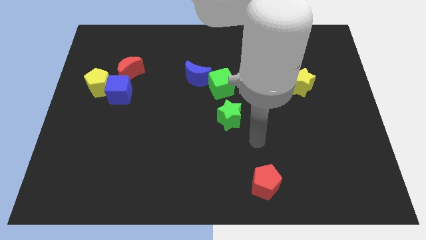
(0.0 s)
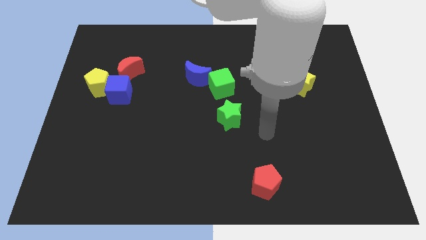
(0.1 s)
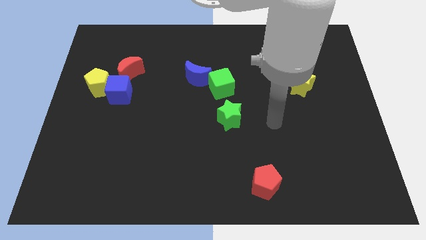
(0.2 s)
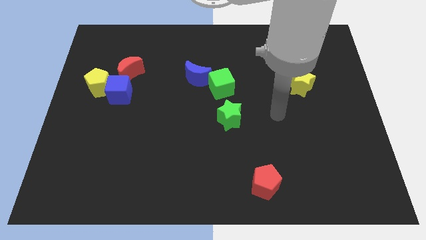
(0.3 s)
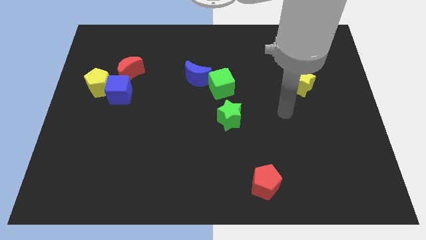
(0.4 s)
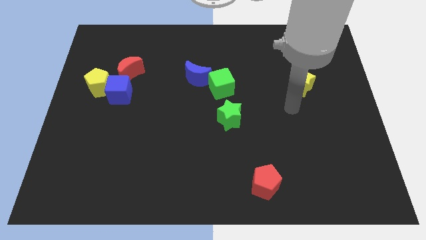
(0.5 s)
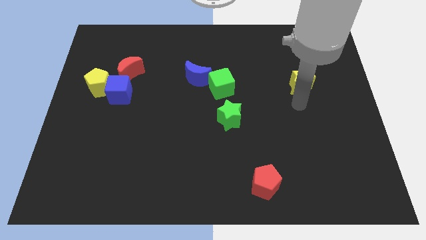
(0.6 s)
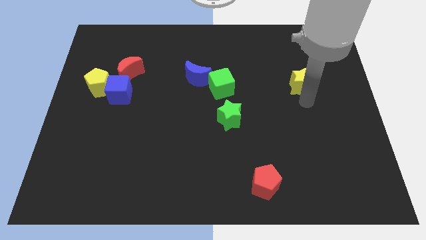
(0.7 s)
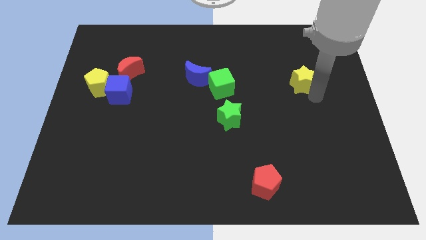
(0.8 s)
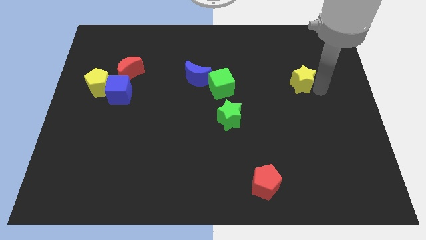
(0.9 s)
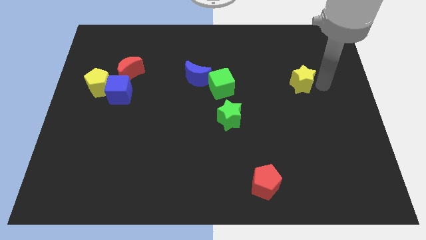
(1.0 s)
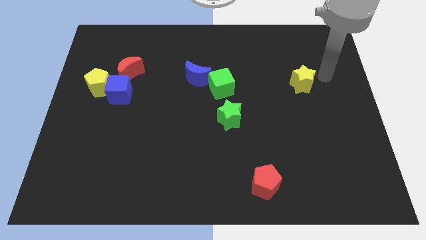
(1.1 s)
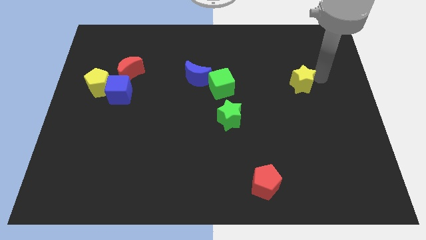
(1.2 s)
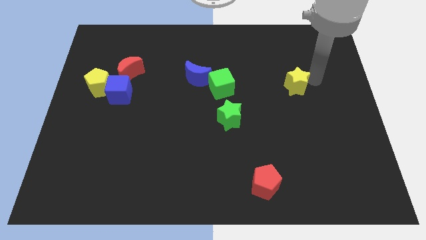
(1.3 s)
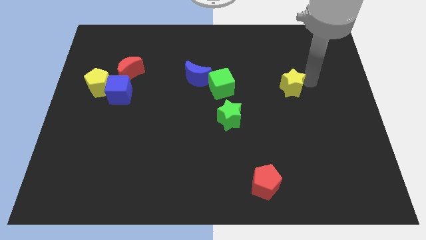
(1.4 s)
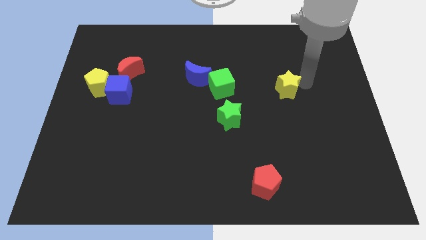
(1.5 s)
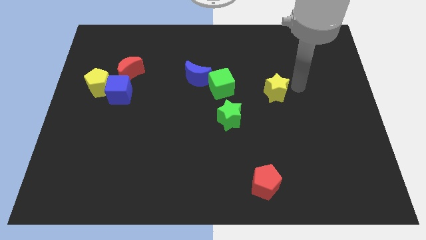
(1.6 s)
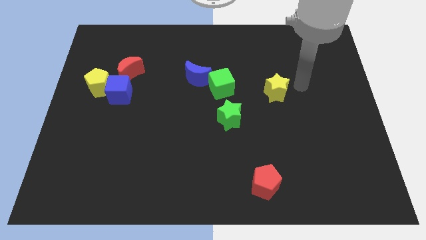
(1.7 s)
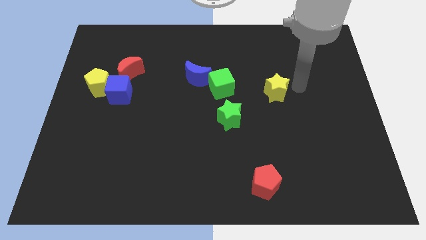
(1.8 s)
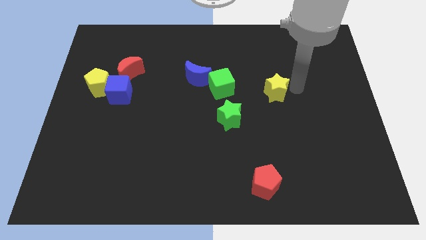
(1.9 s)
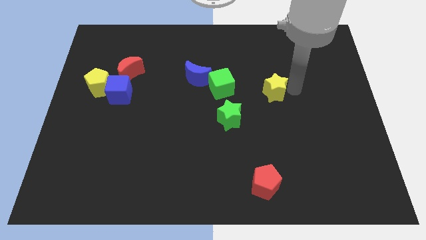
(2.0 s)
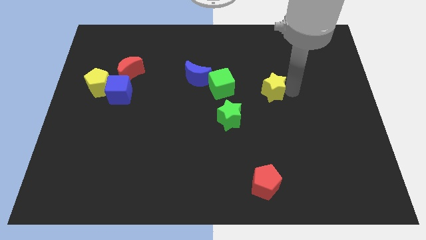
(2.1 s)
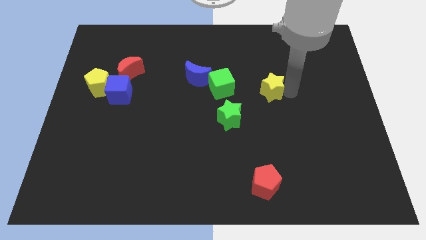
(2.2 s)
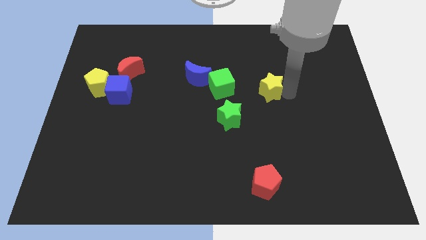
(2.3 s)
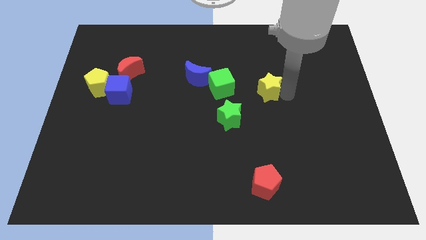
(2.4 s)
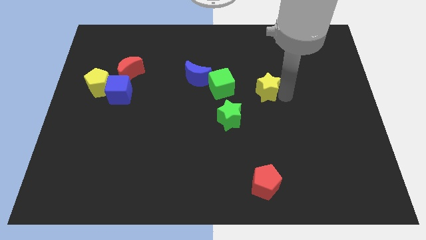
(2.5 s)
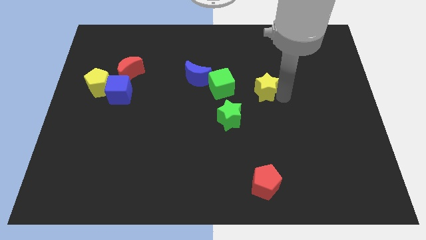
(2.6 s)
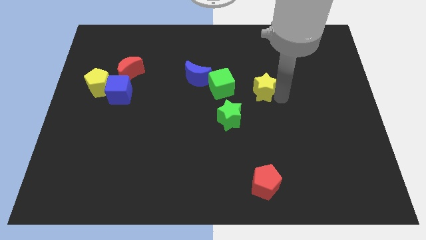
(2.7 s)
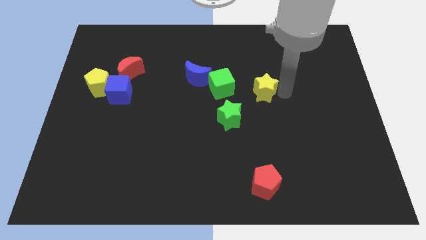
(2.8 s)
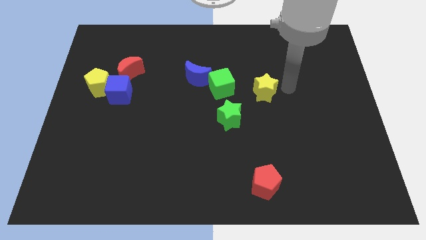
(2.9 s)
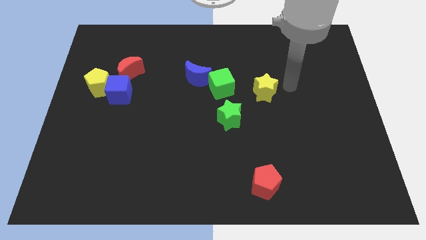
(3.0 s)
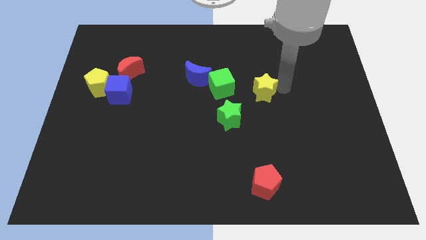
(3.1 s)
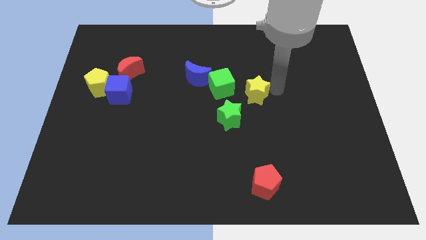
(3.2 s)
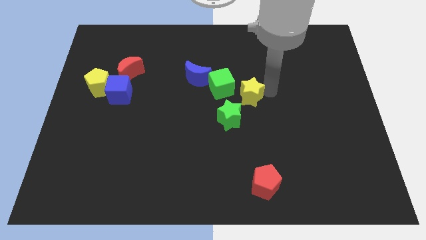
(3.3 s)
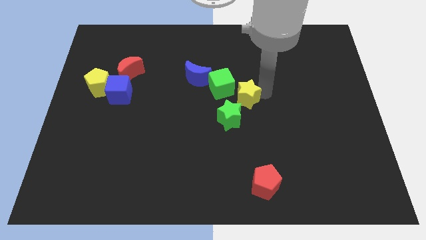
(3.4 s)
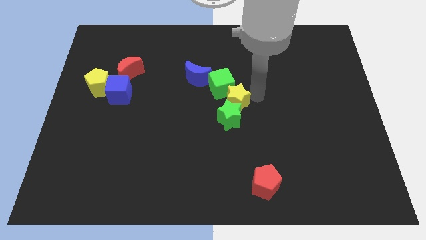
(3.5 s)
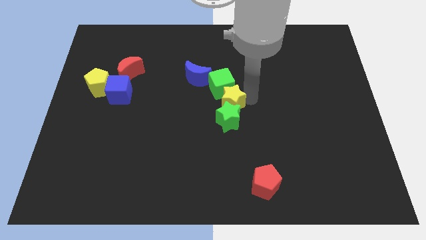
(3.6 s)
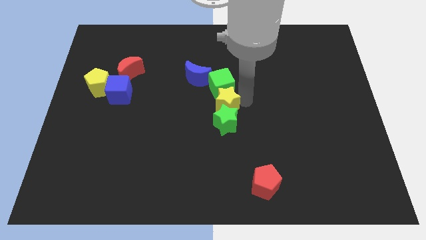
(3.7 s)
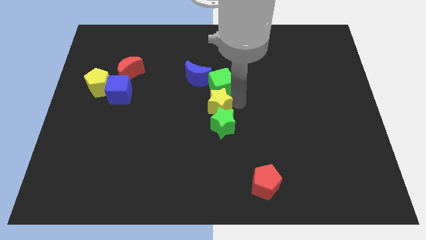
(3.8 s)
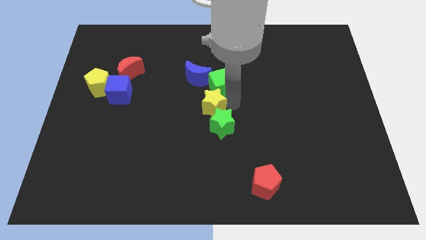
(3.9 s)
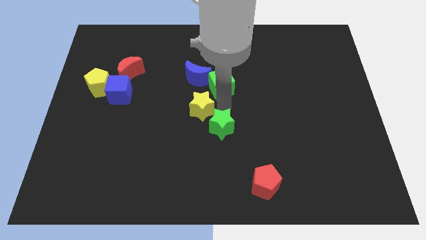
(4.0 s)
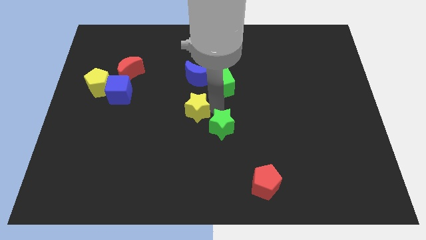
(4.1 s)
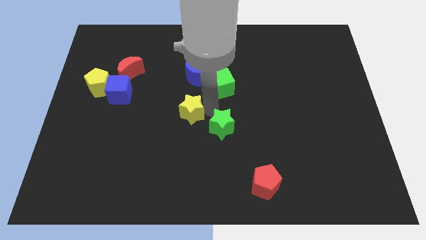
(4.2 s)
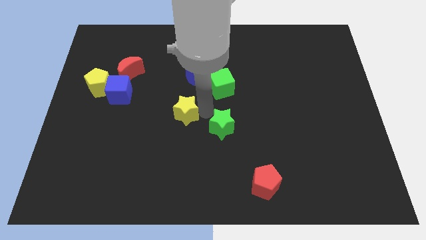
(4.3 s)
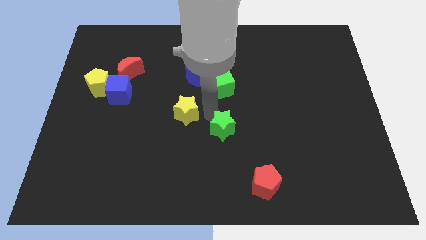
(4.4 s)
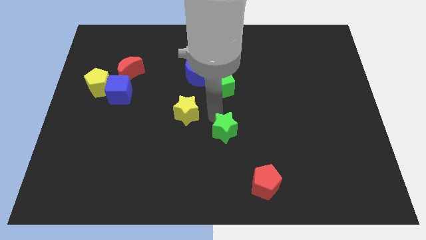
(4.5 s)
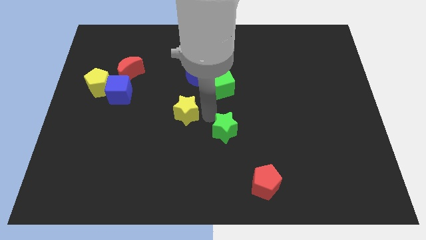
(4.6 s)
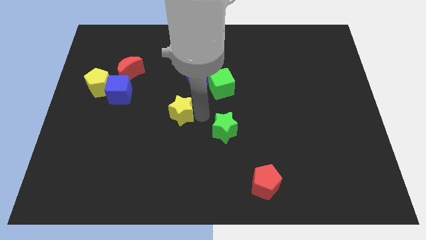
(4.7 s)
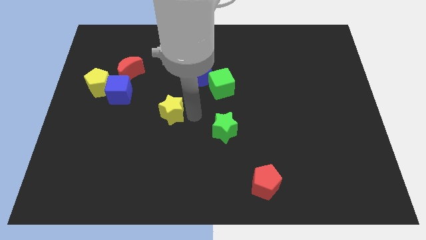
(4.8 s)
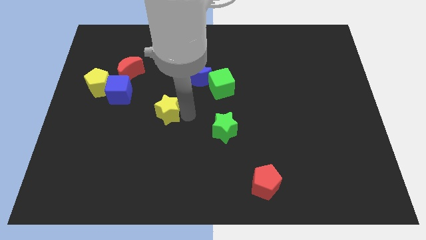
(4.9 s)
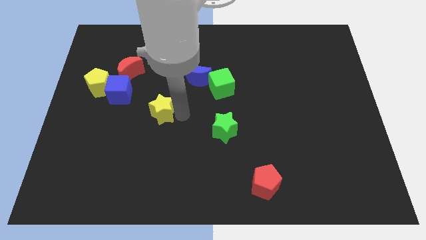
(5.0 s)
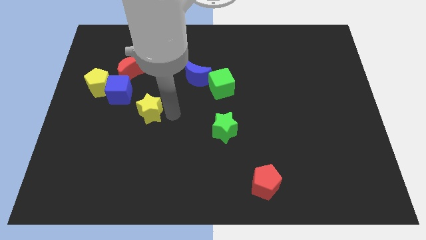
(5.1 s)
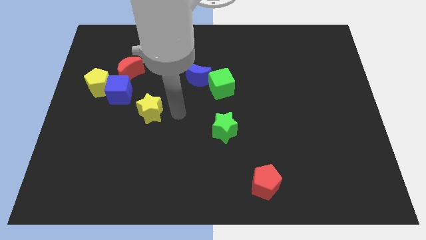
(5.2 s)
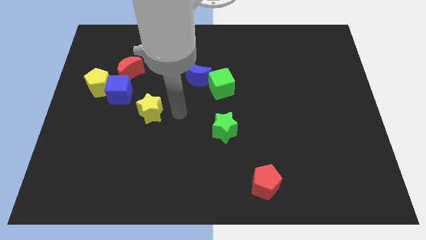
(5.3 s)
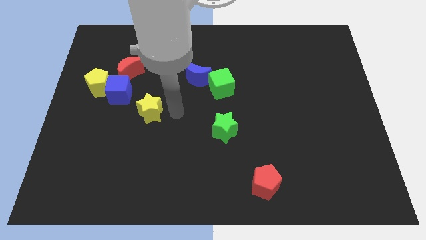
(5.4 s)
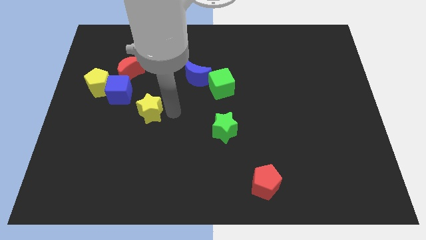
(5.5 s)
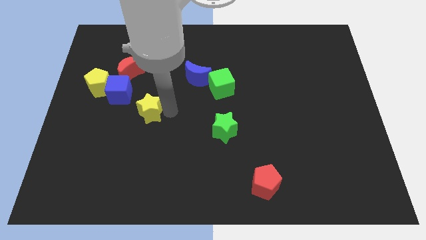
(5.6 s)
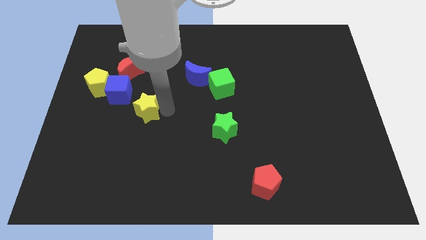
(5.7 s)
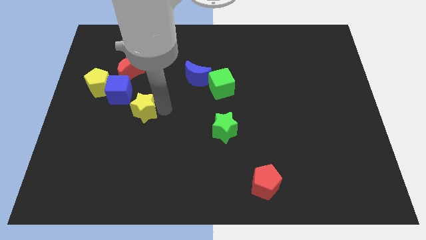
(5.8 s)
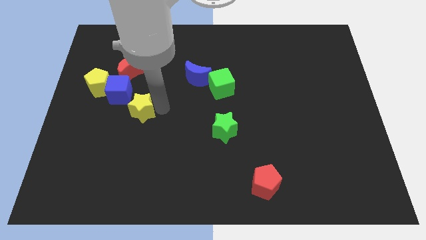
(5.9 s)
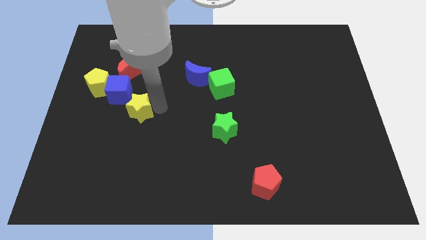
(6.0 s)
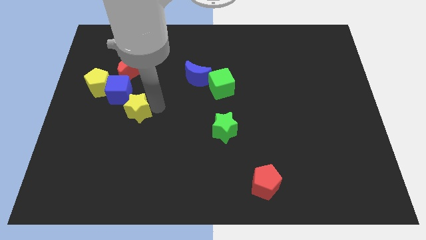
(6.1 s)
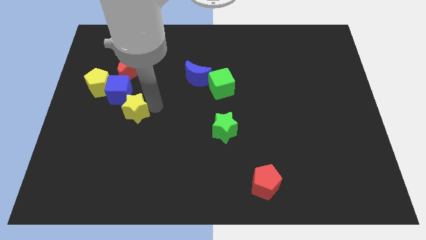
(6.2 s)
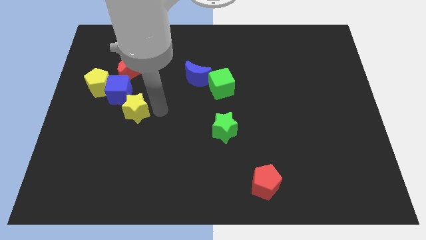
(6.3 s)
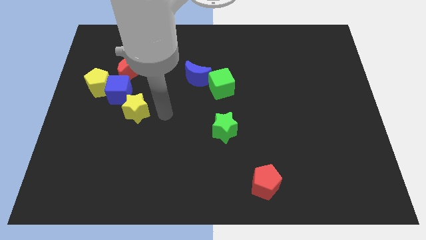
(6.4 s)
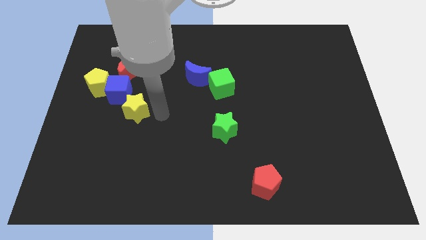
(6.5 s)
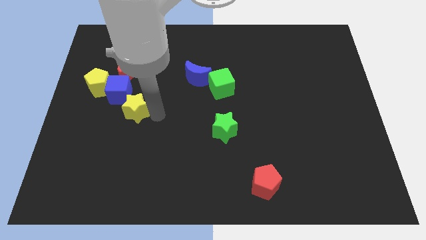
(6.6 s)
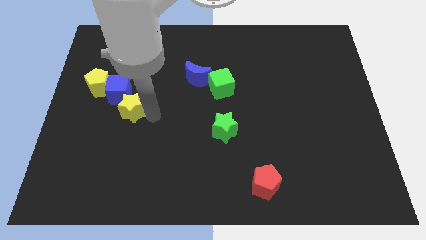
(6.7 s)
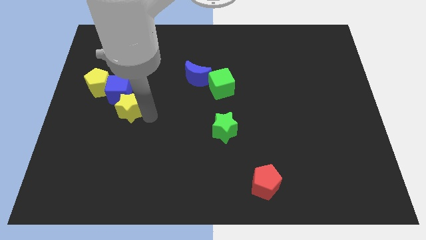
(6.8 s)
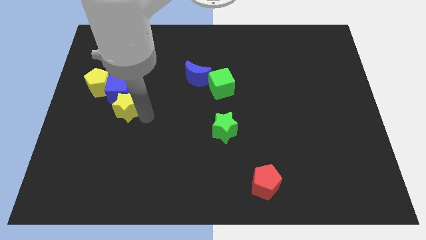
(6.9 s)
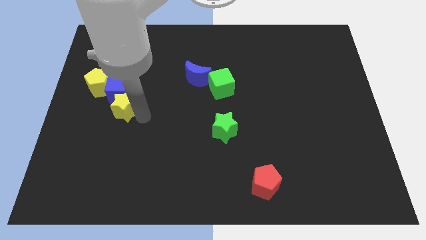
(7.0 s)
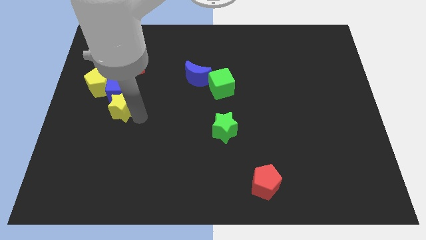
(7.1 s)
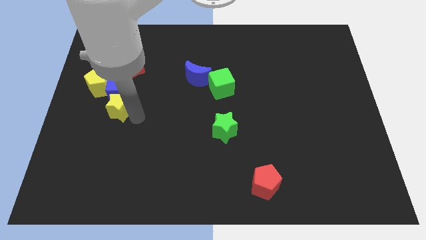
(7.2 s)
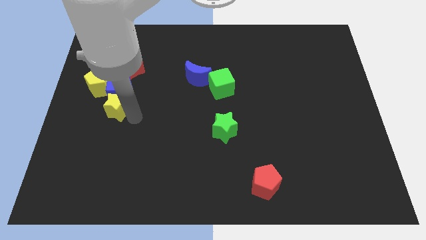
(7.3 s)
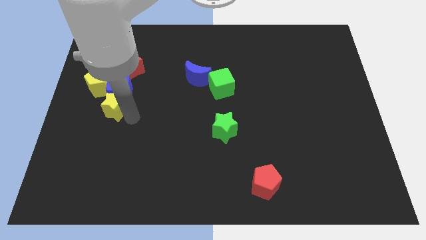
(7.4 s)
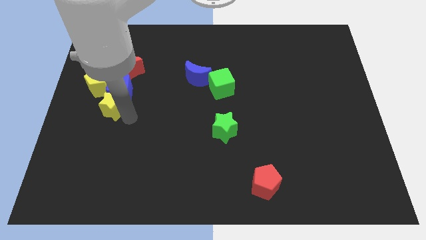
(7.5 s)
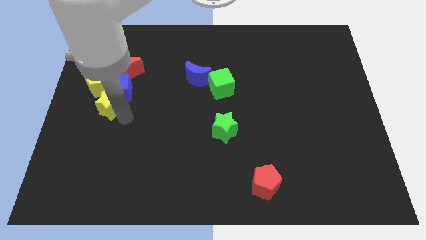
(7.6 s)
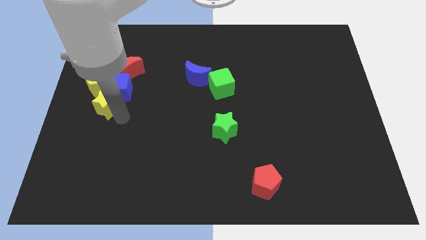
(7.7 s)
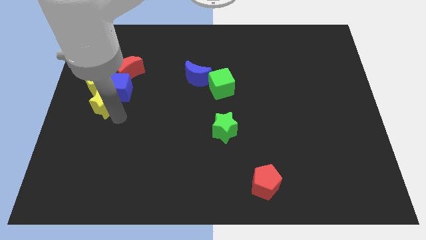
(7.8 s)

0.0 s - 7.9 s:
push the yellow star to the left side
